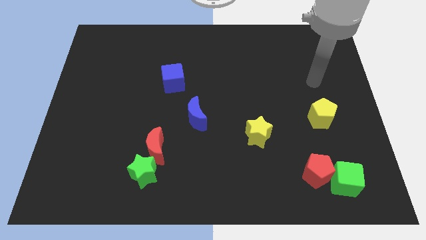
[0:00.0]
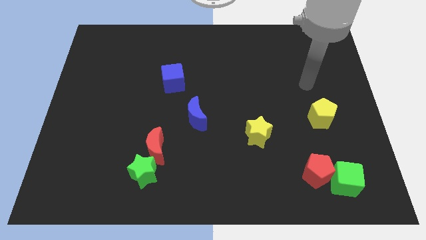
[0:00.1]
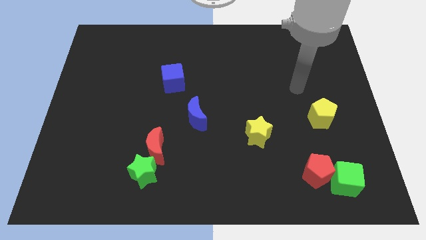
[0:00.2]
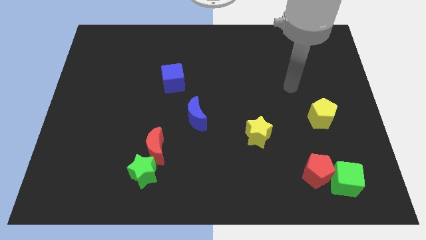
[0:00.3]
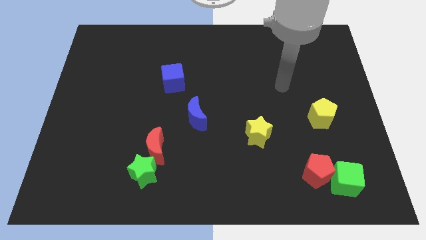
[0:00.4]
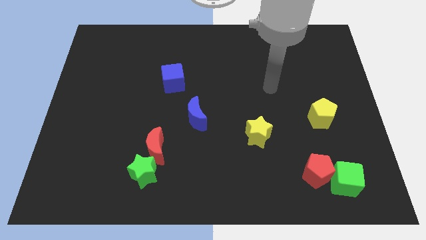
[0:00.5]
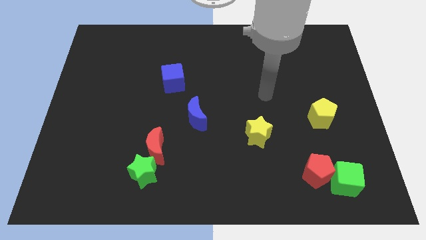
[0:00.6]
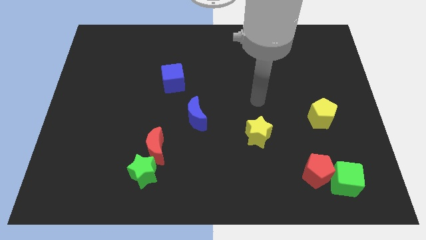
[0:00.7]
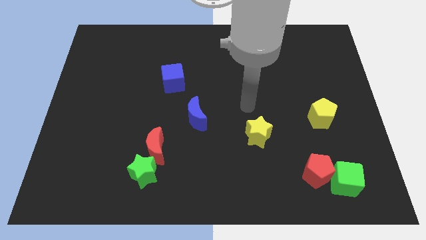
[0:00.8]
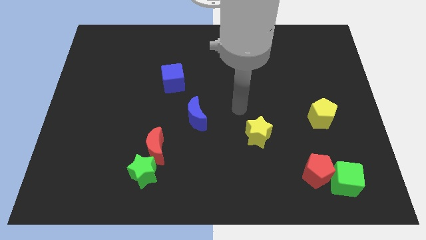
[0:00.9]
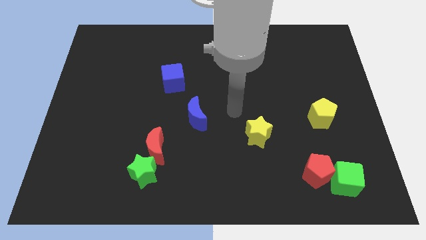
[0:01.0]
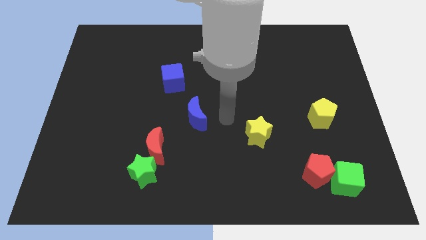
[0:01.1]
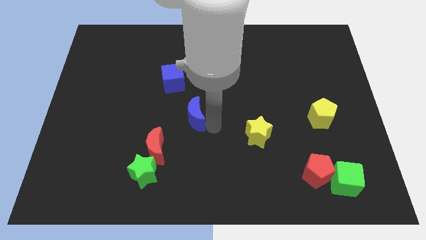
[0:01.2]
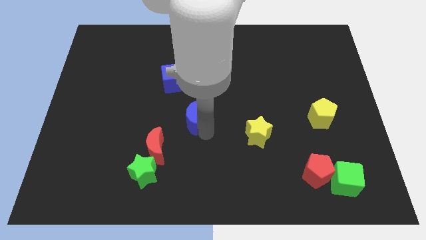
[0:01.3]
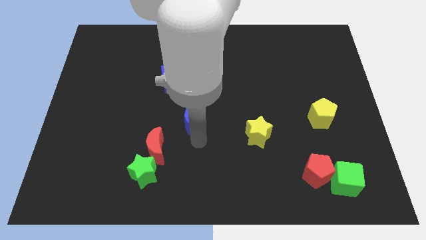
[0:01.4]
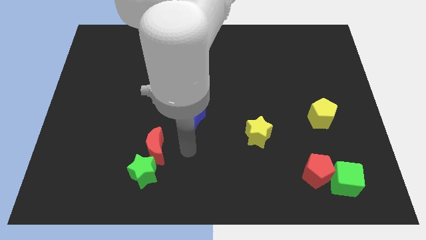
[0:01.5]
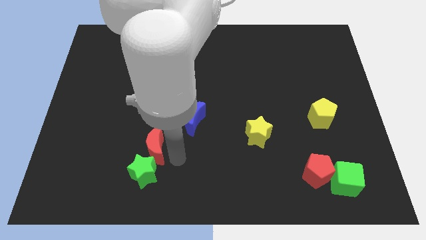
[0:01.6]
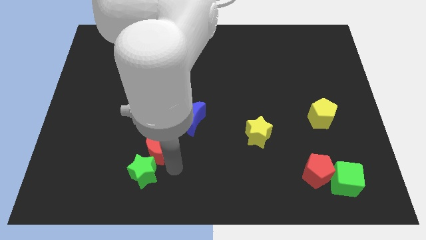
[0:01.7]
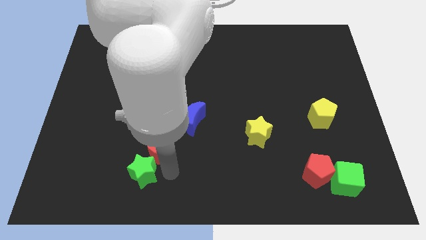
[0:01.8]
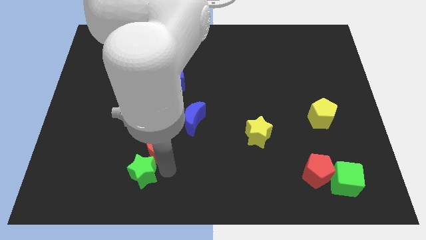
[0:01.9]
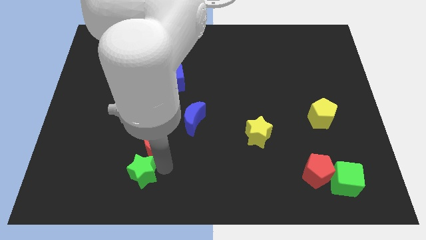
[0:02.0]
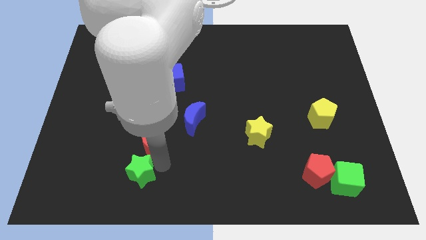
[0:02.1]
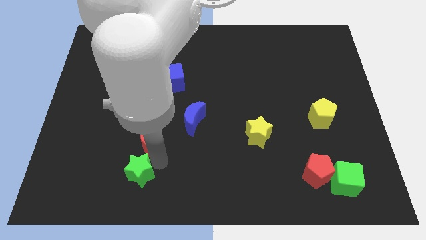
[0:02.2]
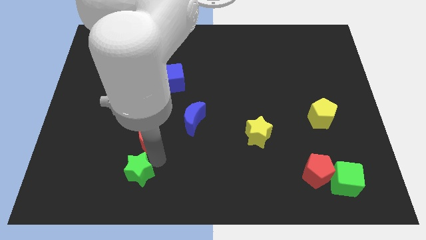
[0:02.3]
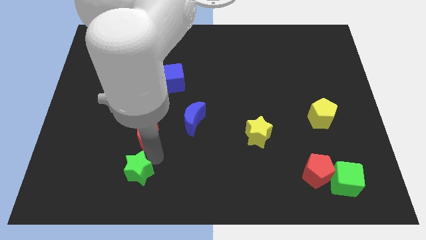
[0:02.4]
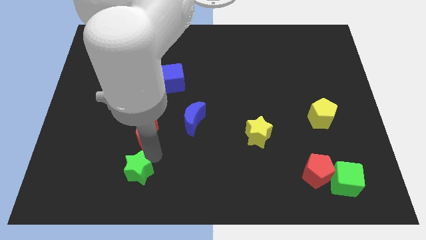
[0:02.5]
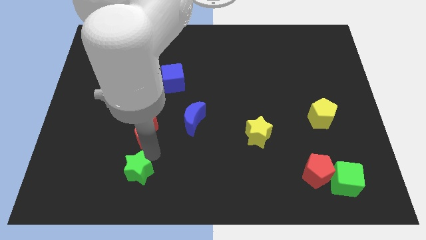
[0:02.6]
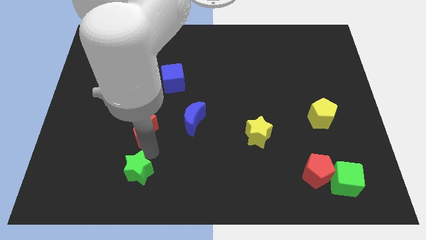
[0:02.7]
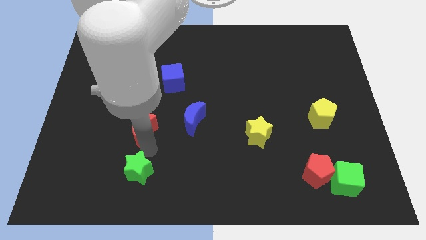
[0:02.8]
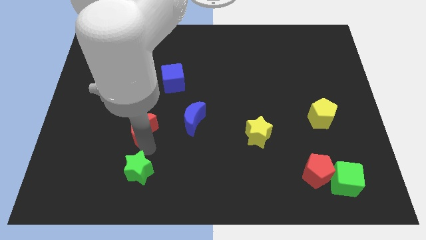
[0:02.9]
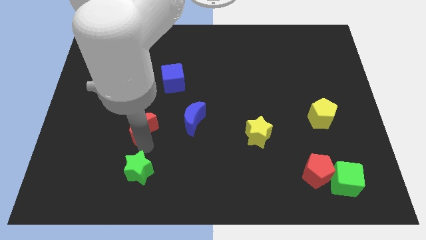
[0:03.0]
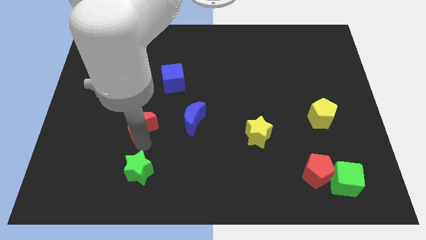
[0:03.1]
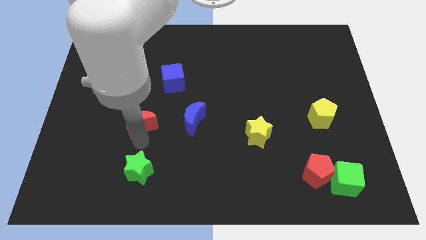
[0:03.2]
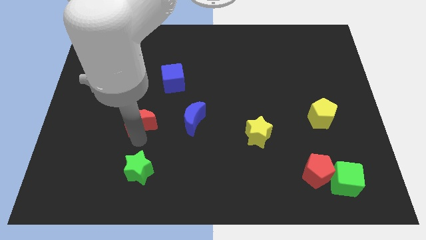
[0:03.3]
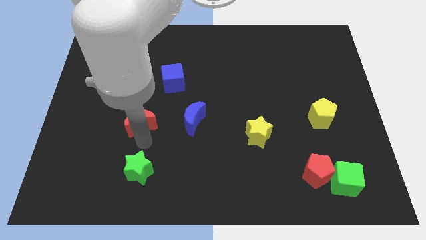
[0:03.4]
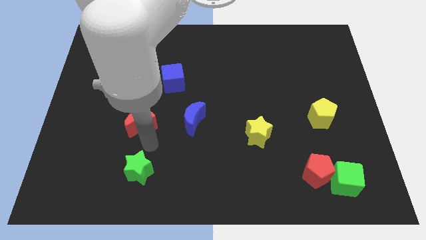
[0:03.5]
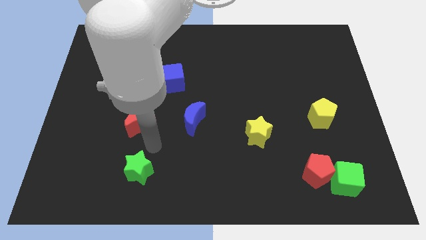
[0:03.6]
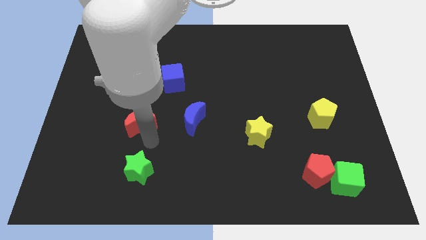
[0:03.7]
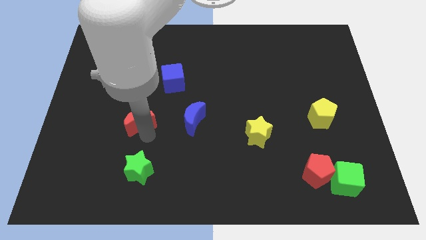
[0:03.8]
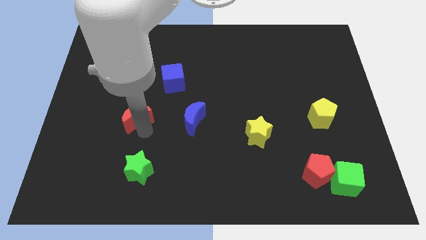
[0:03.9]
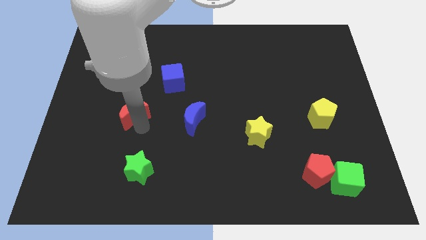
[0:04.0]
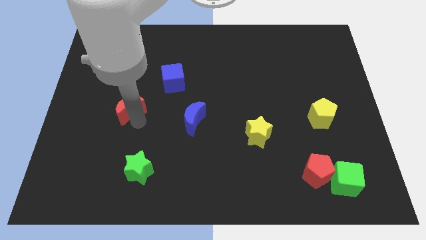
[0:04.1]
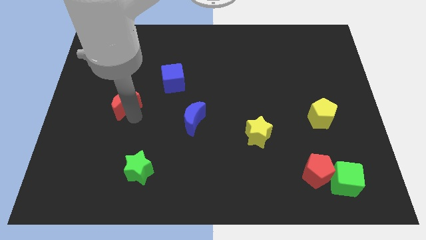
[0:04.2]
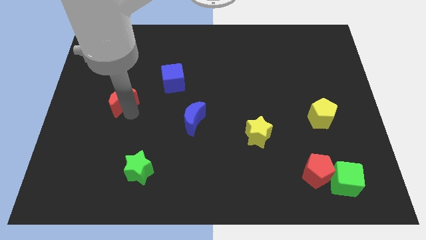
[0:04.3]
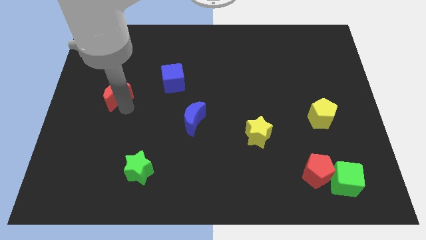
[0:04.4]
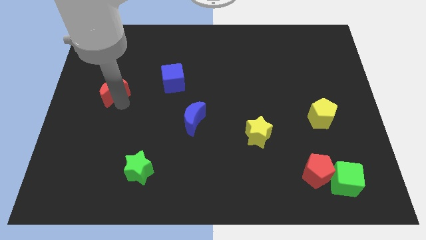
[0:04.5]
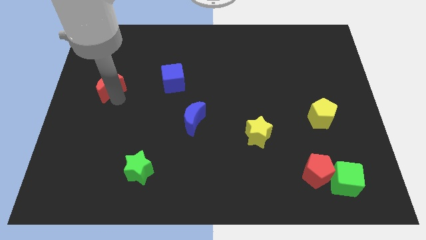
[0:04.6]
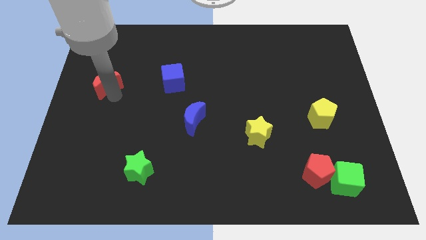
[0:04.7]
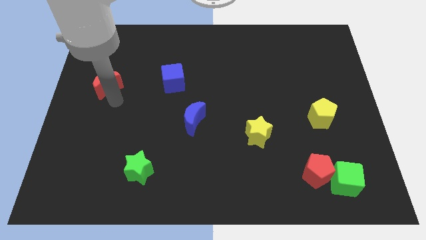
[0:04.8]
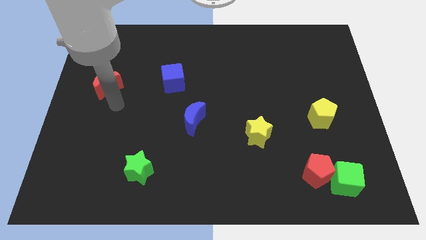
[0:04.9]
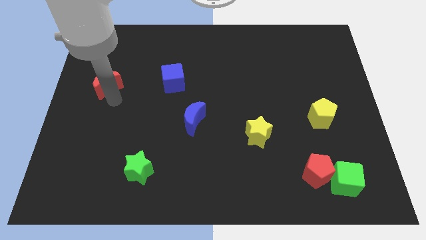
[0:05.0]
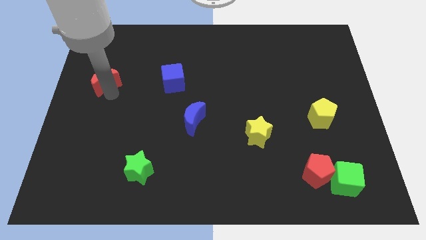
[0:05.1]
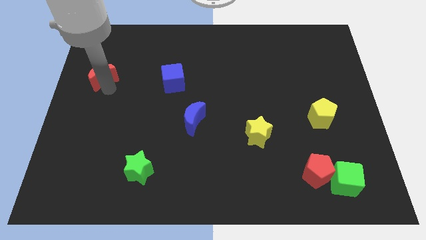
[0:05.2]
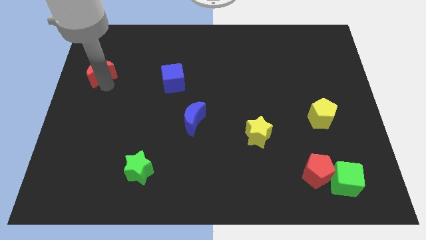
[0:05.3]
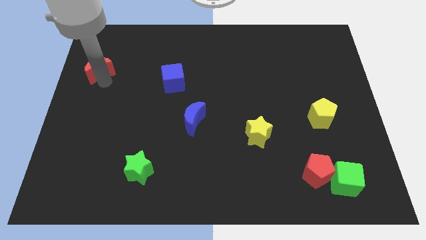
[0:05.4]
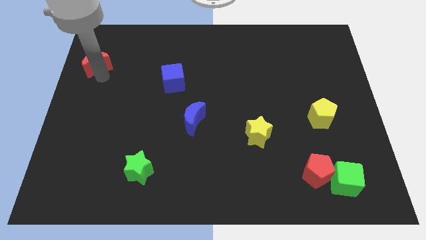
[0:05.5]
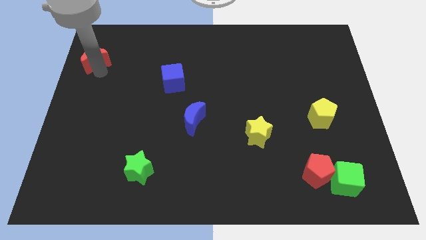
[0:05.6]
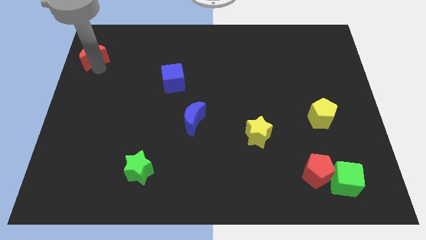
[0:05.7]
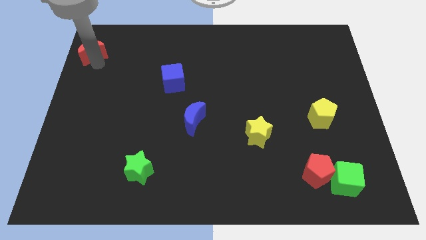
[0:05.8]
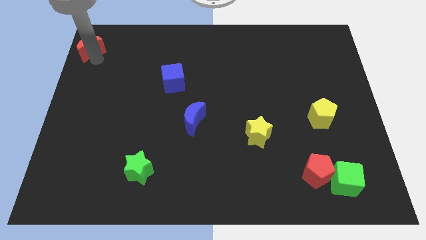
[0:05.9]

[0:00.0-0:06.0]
push the red moon to the top left corner

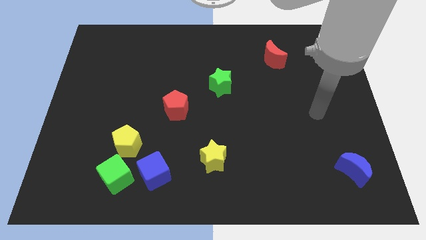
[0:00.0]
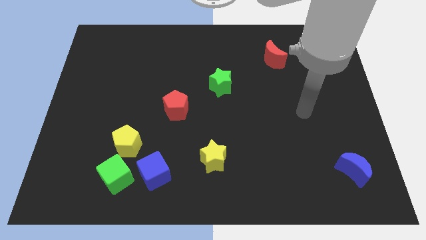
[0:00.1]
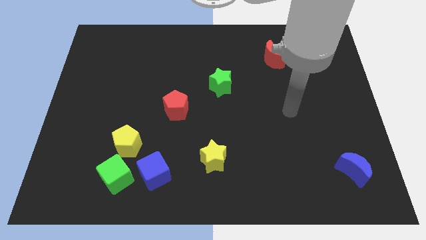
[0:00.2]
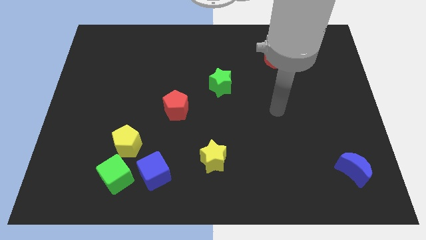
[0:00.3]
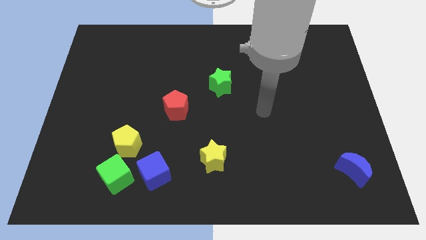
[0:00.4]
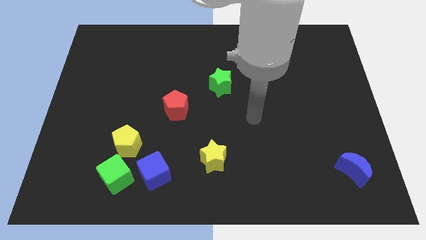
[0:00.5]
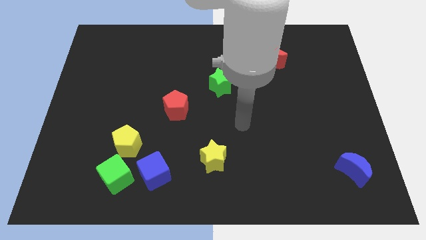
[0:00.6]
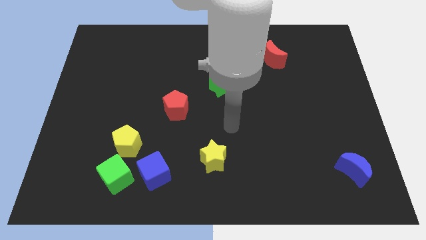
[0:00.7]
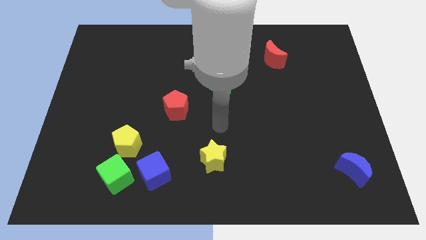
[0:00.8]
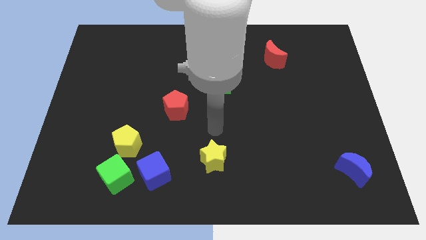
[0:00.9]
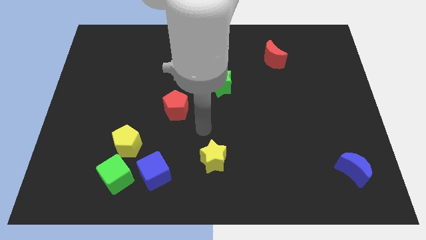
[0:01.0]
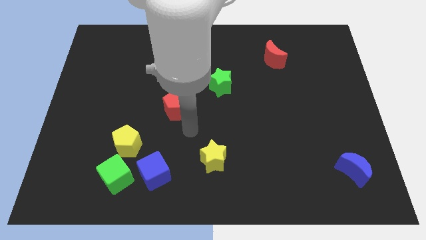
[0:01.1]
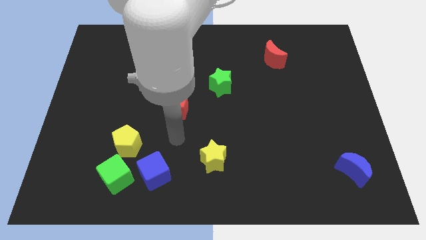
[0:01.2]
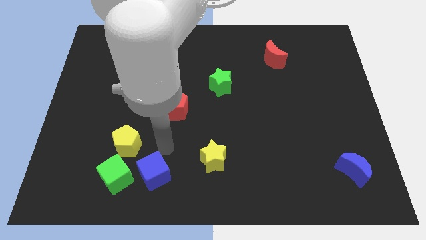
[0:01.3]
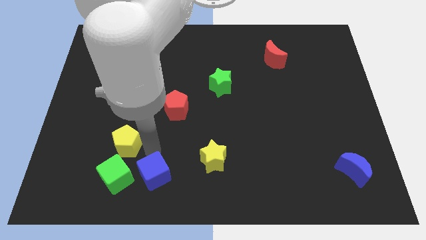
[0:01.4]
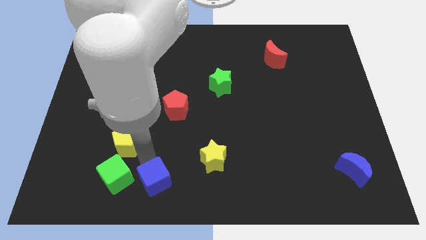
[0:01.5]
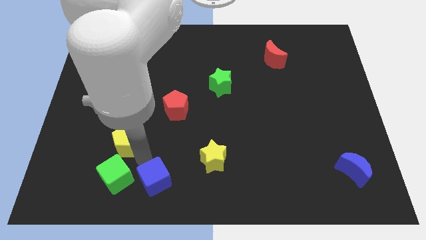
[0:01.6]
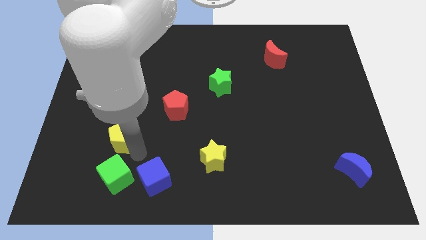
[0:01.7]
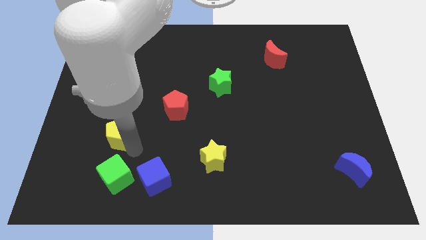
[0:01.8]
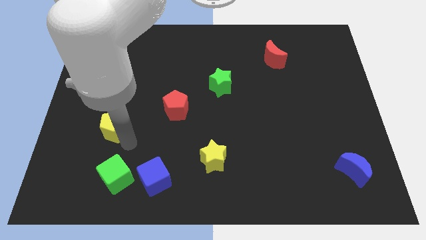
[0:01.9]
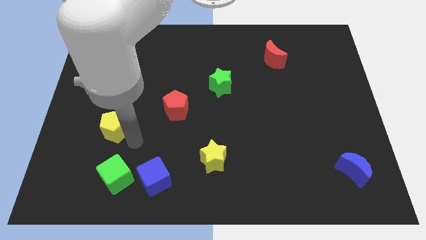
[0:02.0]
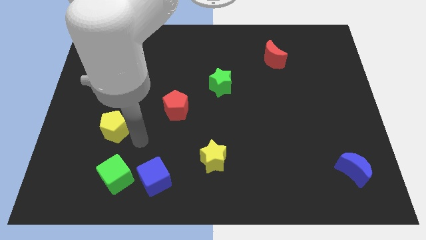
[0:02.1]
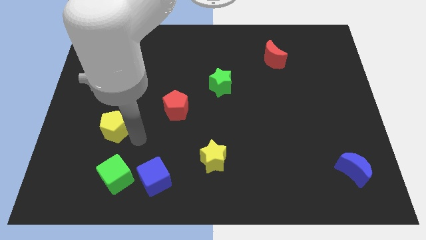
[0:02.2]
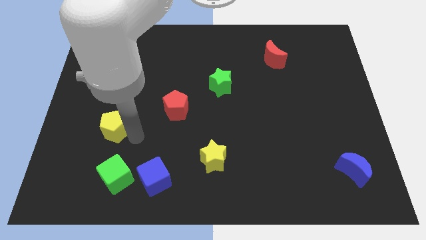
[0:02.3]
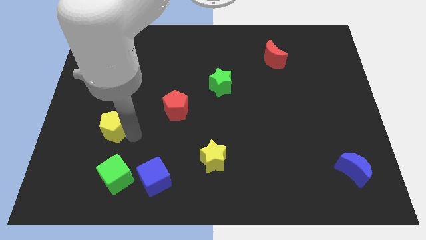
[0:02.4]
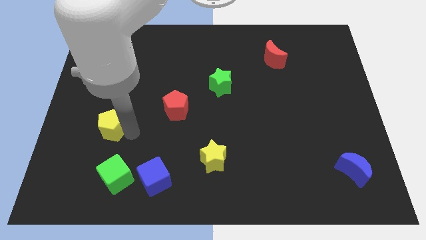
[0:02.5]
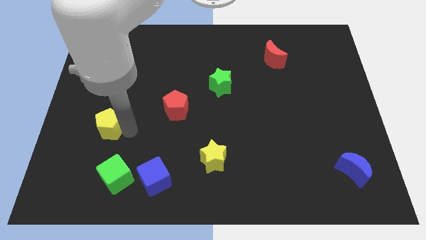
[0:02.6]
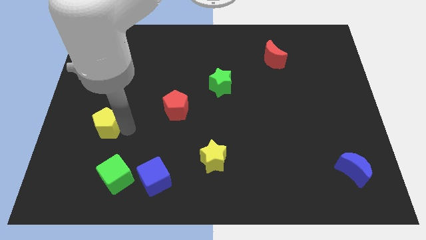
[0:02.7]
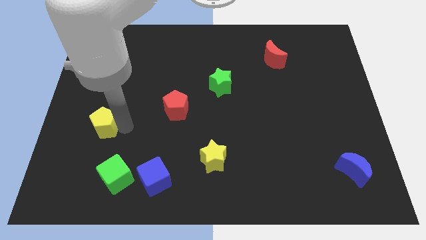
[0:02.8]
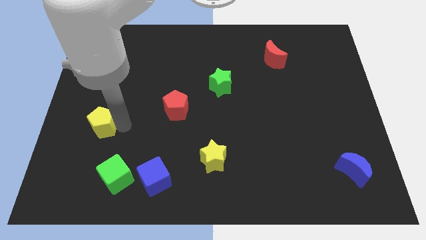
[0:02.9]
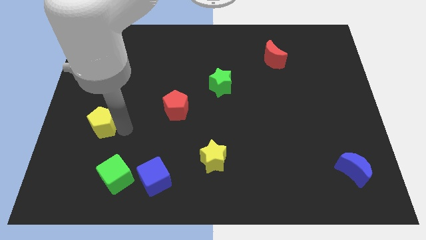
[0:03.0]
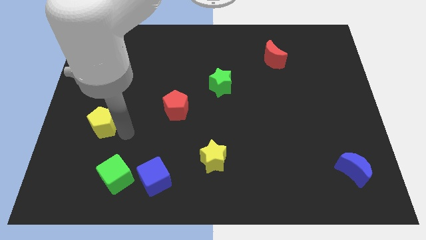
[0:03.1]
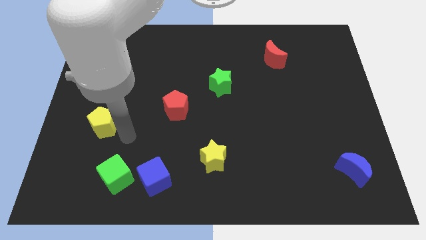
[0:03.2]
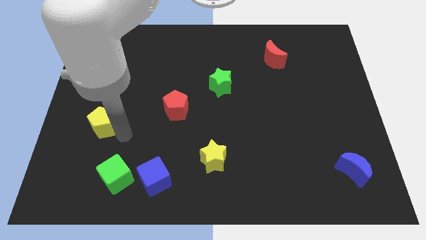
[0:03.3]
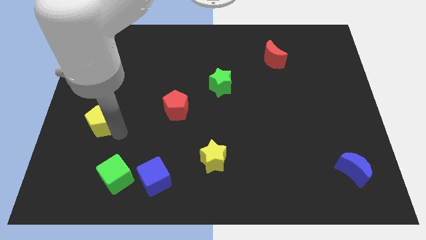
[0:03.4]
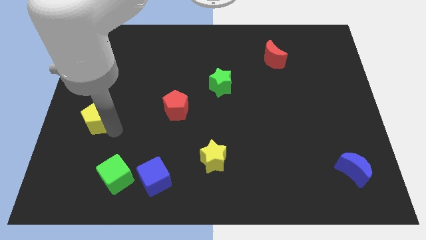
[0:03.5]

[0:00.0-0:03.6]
move the yellow pentagon to the left side of the board
